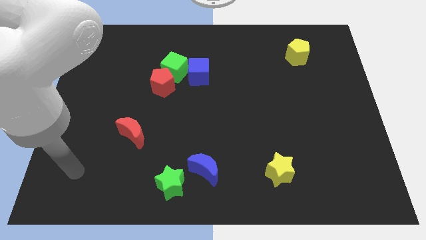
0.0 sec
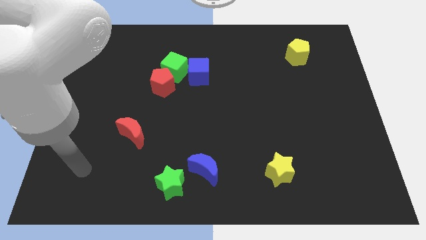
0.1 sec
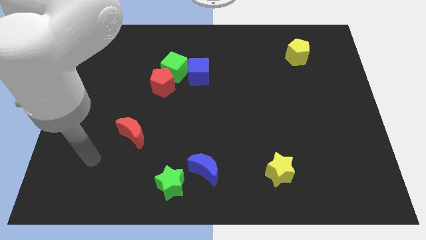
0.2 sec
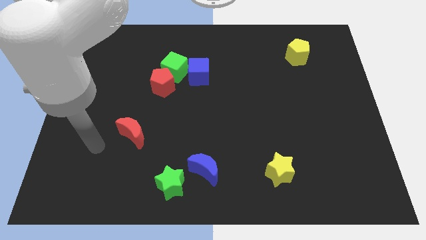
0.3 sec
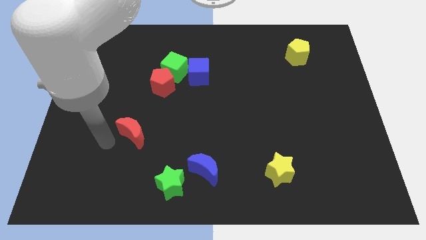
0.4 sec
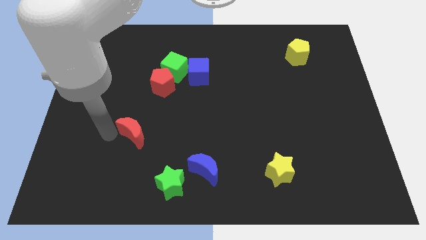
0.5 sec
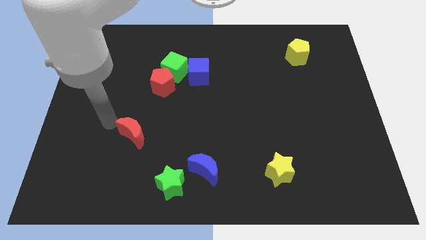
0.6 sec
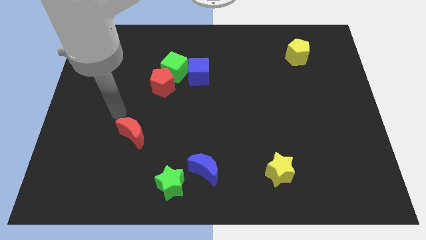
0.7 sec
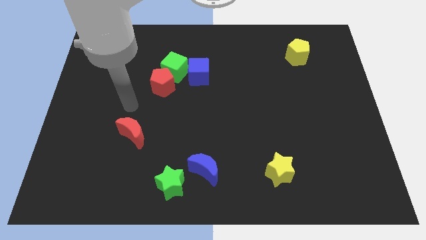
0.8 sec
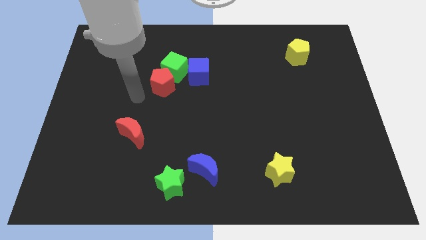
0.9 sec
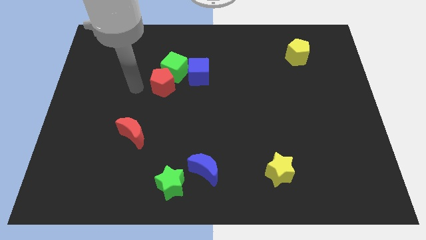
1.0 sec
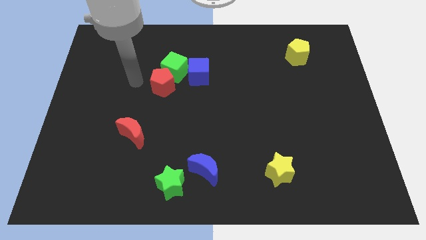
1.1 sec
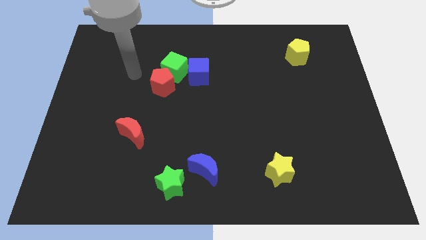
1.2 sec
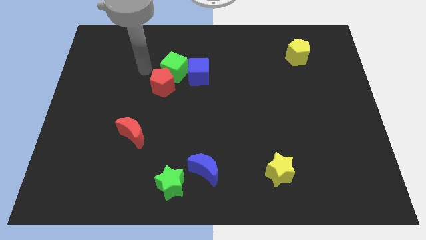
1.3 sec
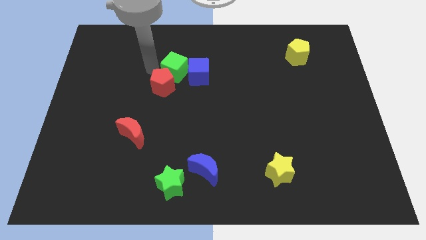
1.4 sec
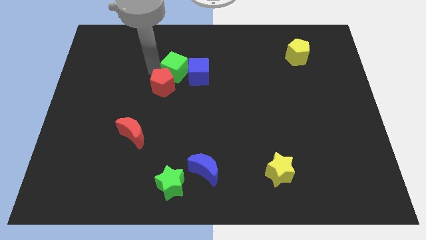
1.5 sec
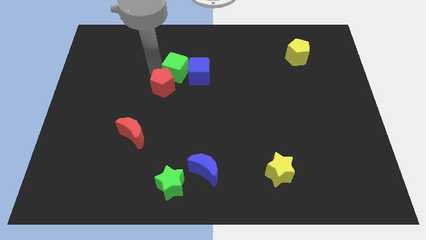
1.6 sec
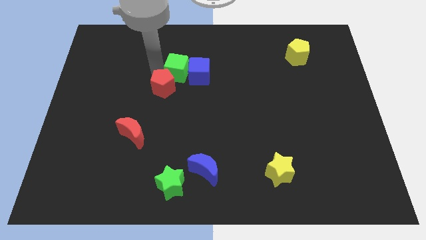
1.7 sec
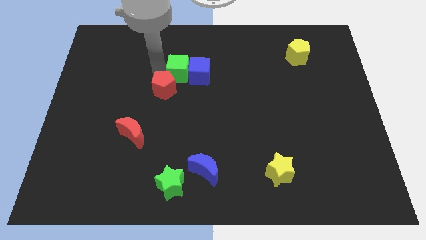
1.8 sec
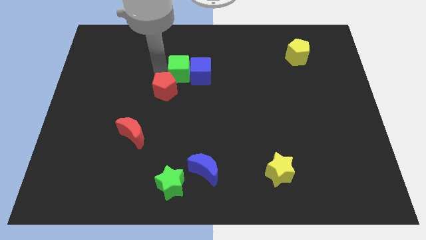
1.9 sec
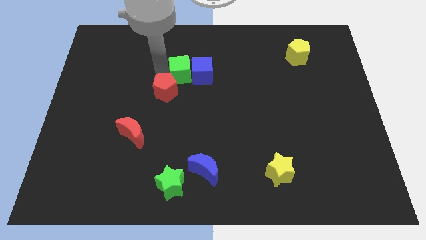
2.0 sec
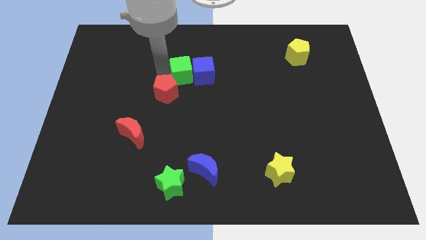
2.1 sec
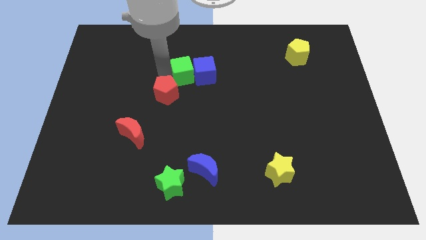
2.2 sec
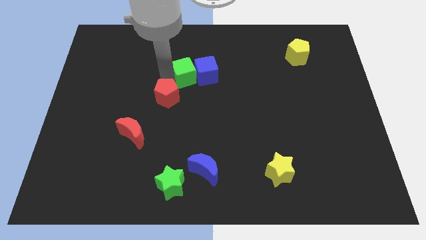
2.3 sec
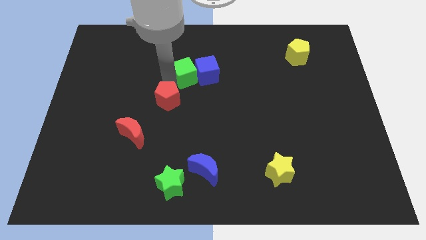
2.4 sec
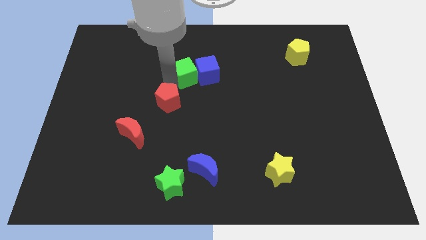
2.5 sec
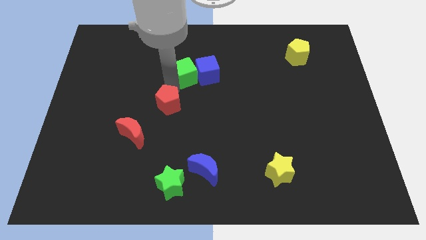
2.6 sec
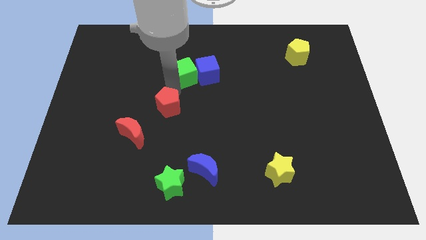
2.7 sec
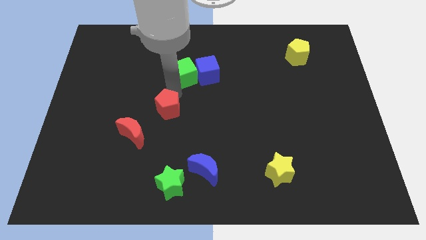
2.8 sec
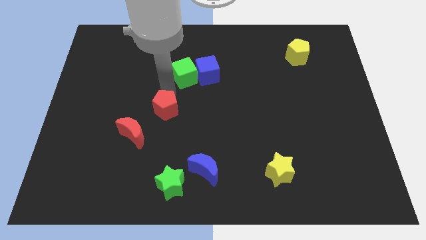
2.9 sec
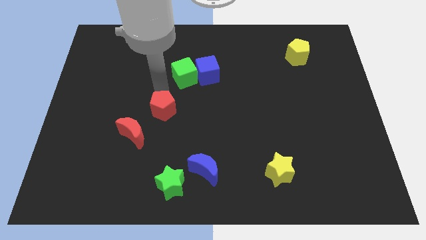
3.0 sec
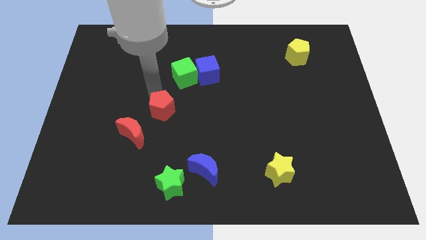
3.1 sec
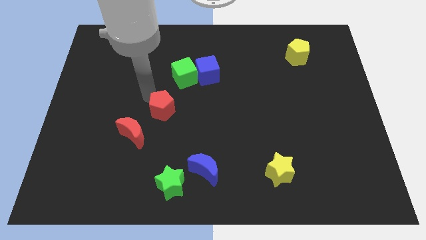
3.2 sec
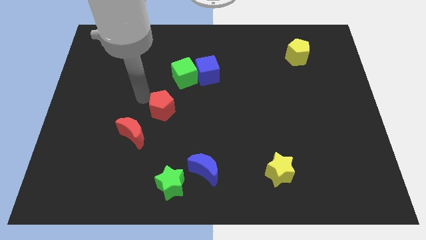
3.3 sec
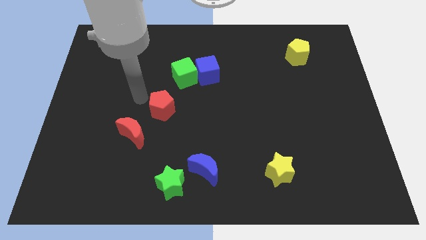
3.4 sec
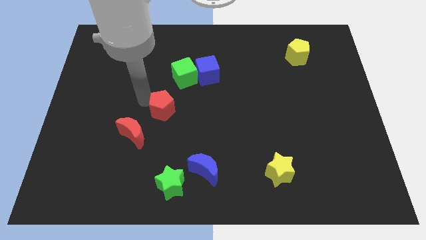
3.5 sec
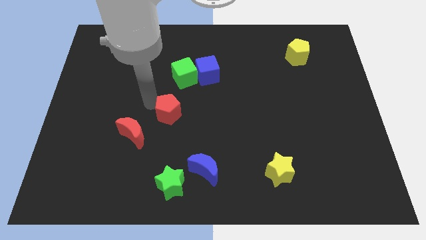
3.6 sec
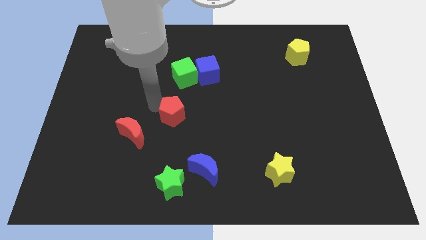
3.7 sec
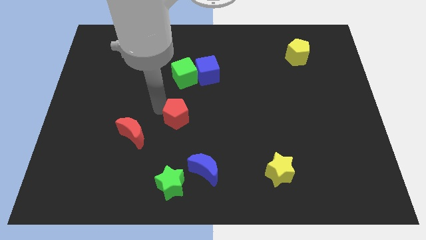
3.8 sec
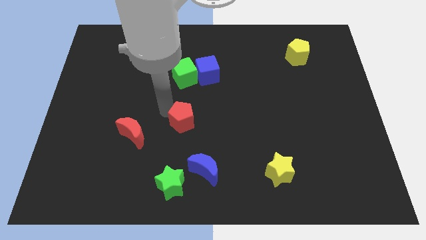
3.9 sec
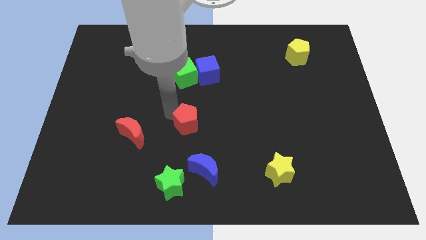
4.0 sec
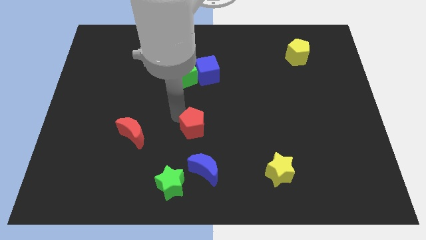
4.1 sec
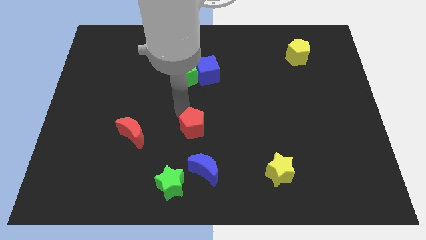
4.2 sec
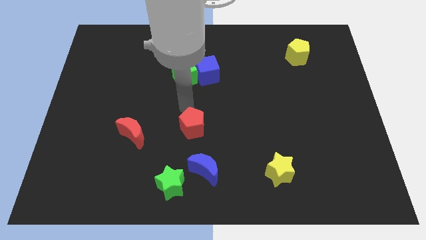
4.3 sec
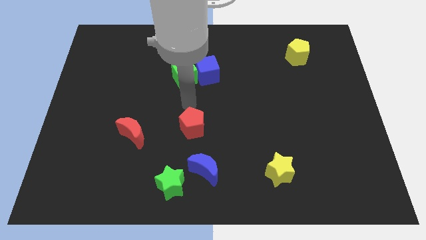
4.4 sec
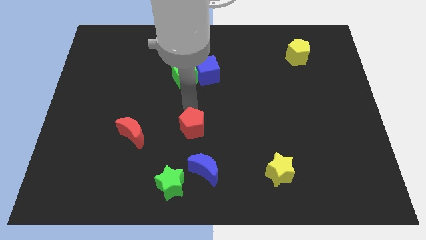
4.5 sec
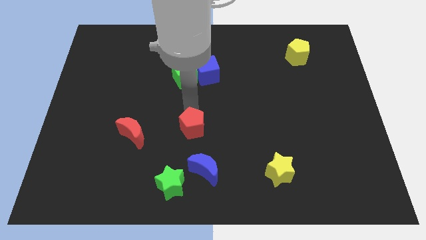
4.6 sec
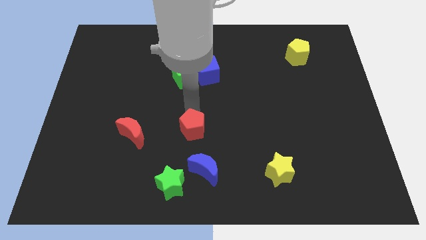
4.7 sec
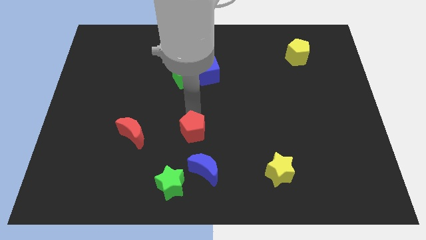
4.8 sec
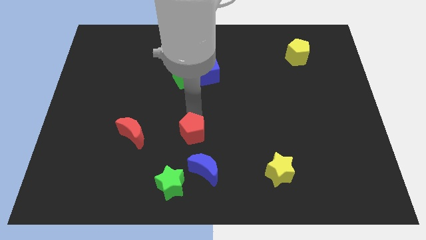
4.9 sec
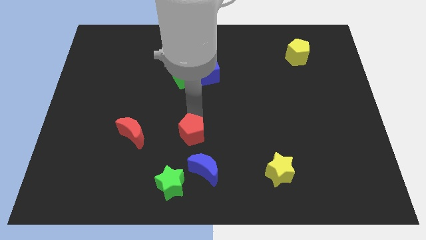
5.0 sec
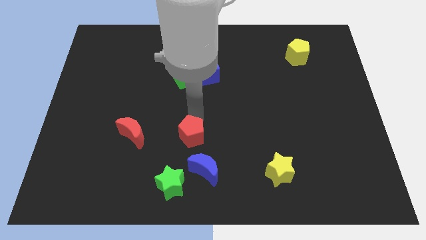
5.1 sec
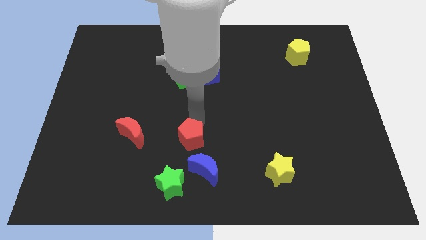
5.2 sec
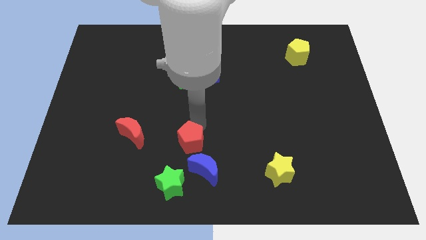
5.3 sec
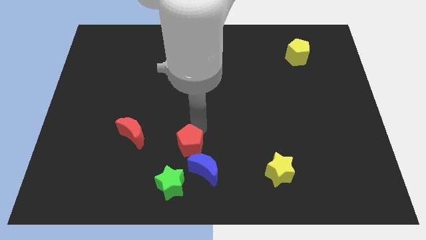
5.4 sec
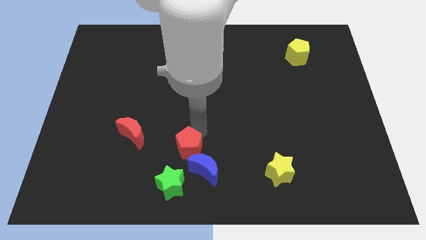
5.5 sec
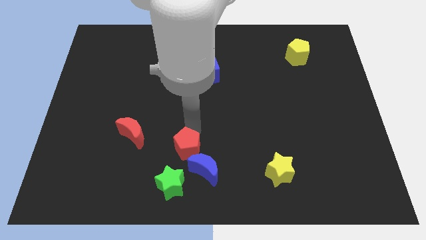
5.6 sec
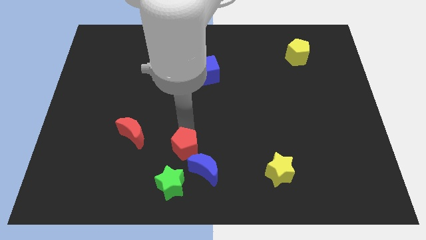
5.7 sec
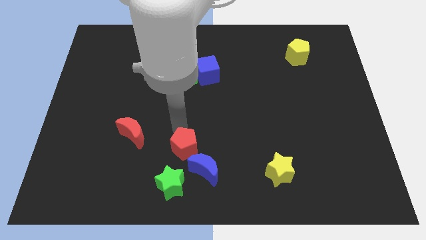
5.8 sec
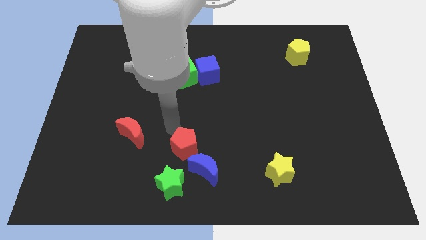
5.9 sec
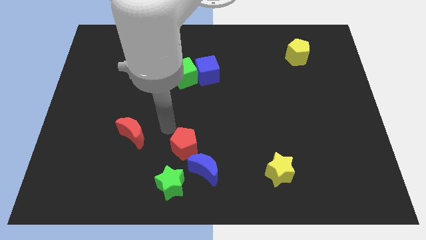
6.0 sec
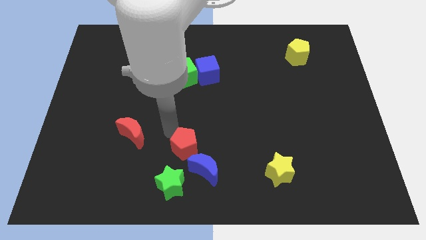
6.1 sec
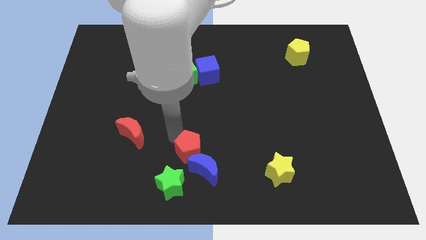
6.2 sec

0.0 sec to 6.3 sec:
slide the red pentagon towards the blue moon

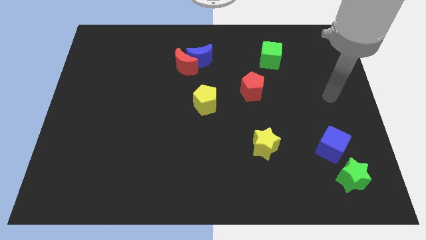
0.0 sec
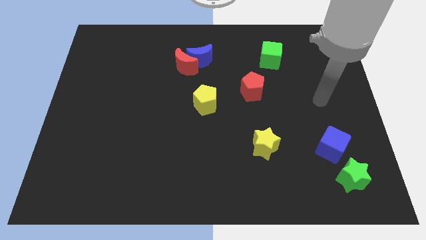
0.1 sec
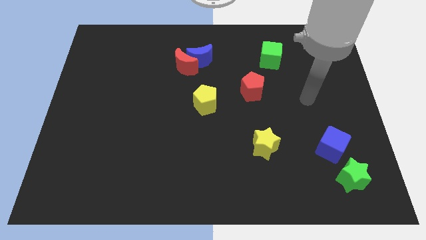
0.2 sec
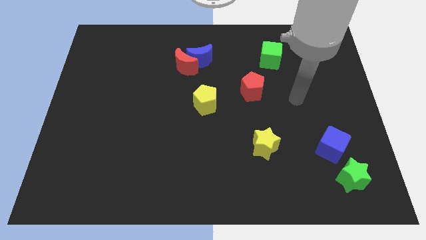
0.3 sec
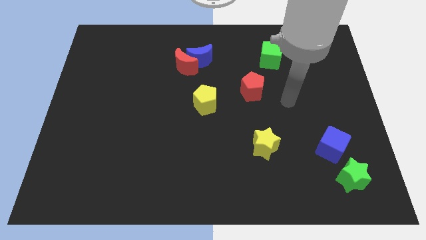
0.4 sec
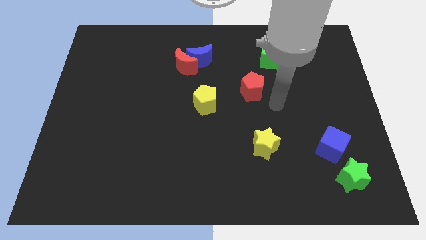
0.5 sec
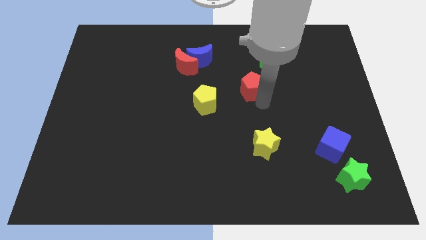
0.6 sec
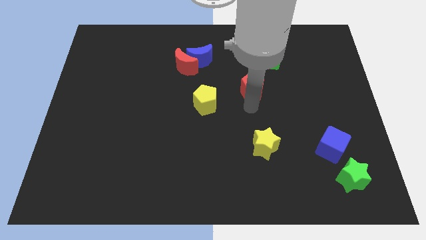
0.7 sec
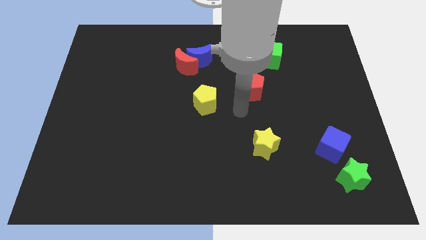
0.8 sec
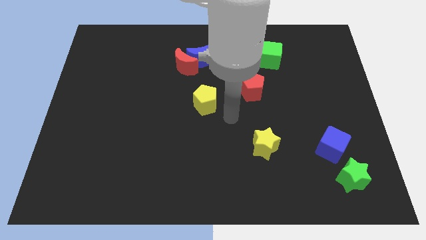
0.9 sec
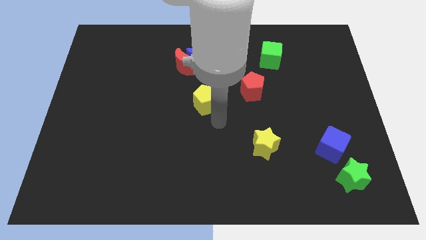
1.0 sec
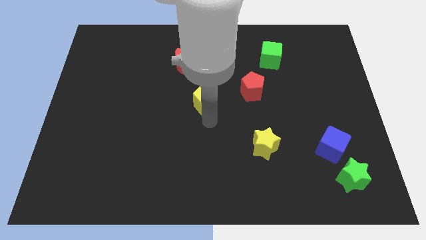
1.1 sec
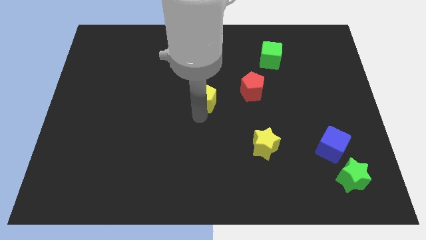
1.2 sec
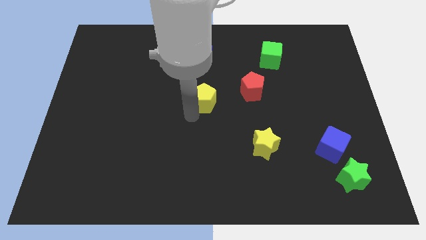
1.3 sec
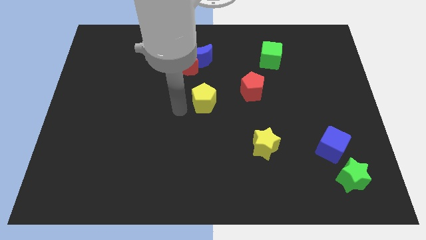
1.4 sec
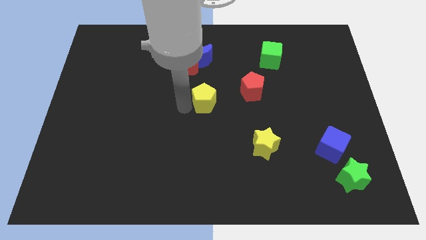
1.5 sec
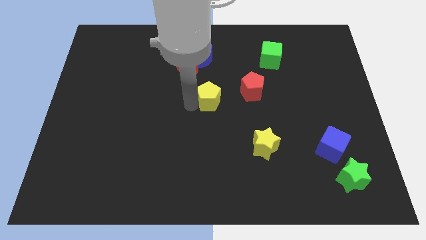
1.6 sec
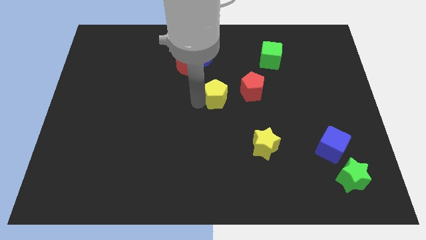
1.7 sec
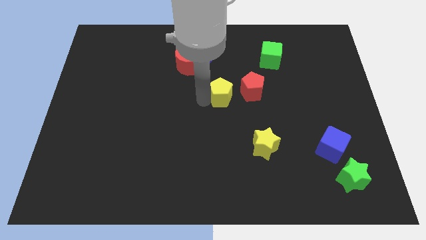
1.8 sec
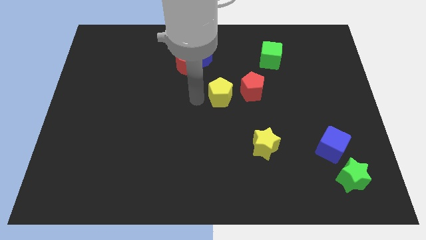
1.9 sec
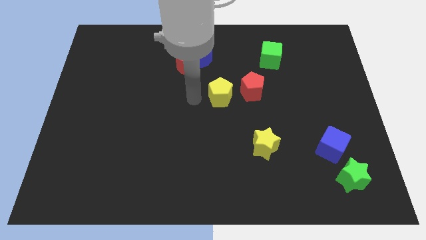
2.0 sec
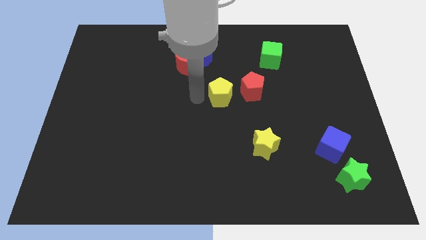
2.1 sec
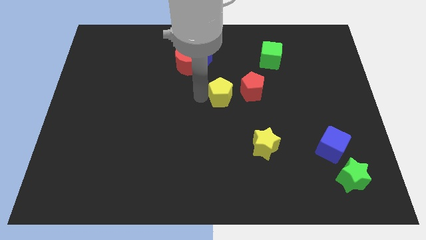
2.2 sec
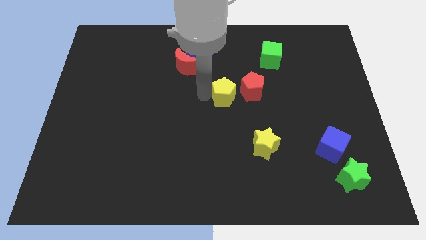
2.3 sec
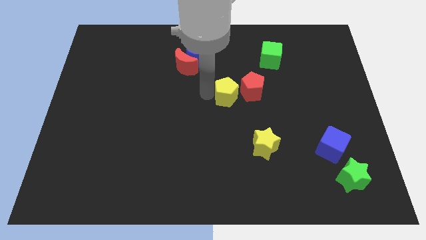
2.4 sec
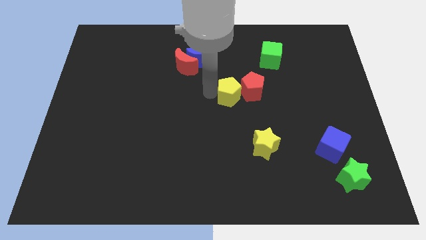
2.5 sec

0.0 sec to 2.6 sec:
slide the yellow pentagon next to the red pentagon
